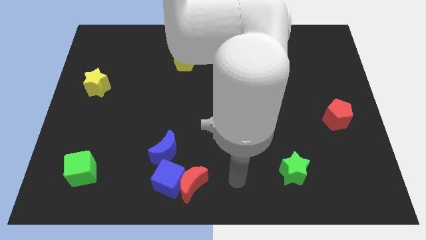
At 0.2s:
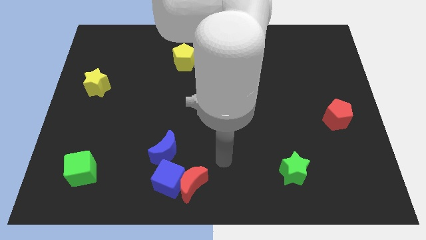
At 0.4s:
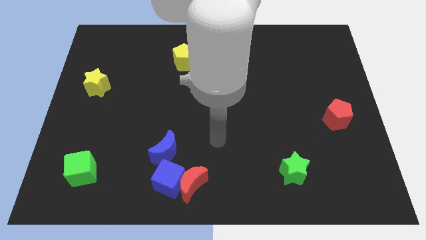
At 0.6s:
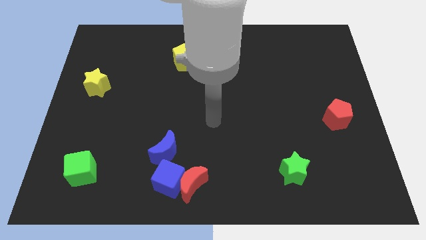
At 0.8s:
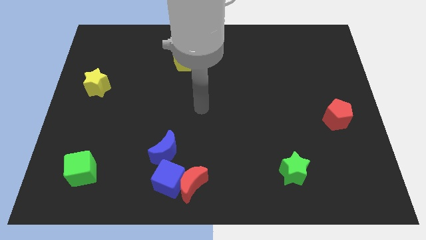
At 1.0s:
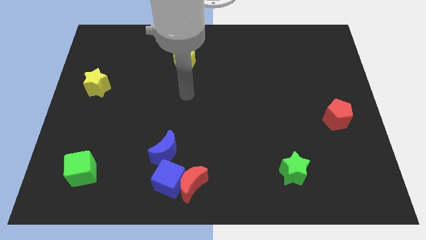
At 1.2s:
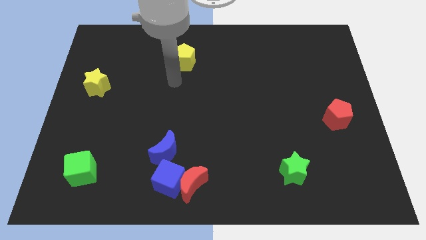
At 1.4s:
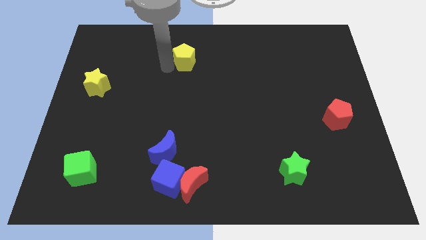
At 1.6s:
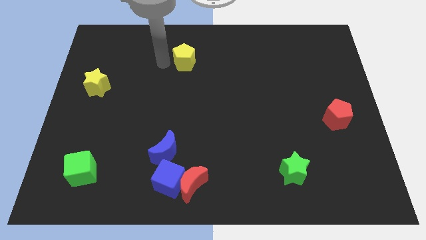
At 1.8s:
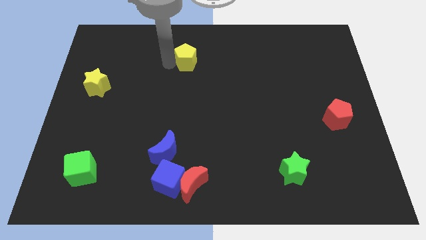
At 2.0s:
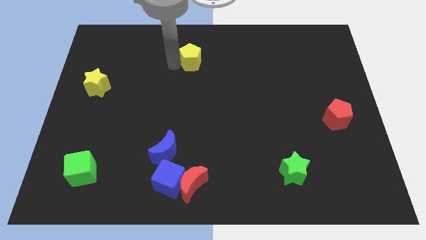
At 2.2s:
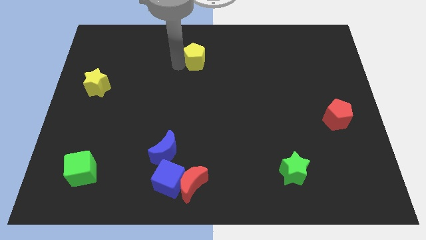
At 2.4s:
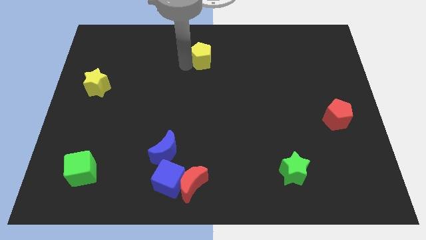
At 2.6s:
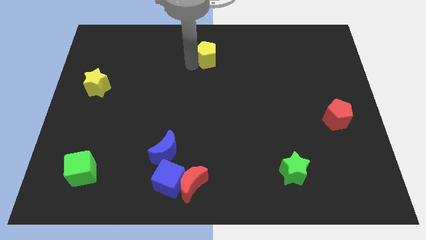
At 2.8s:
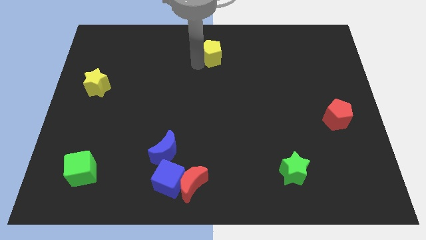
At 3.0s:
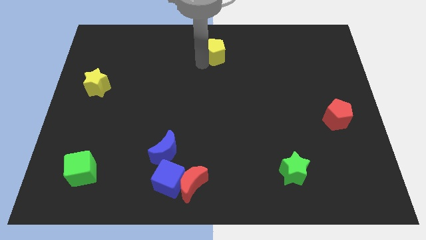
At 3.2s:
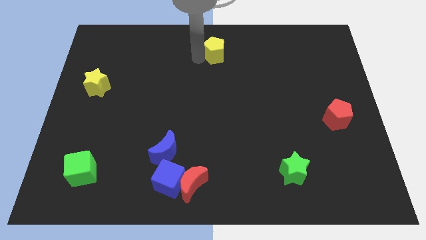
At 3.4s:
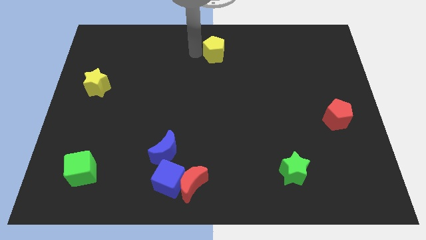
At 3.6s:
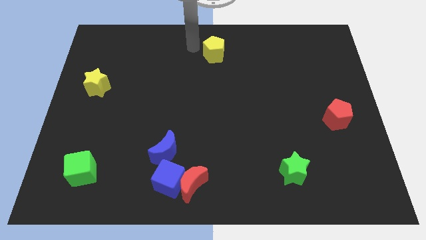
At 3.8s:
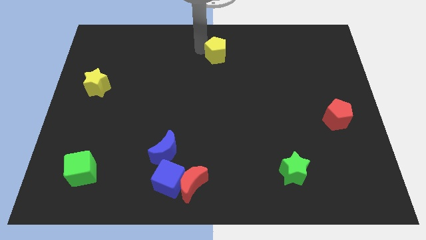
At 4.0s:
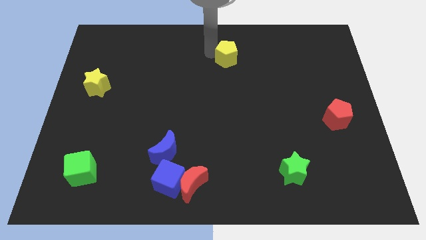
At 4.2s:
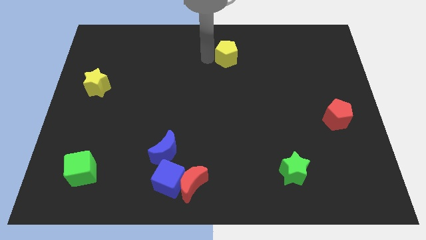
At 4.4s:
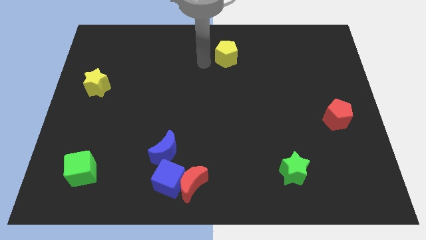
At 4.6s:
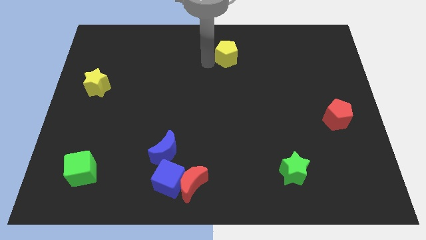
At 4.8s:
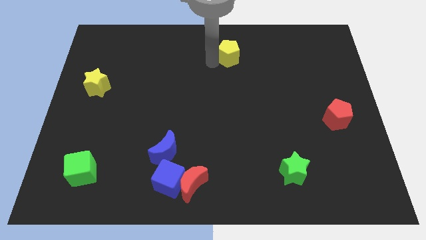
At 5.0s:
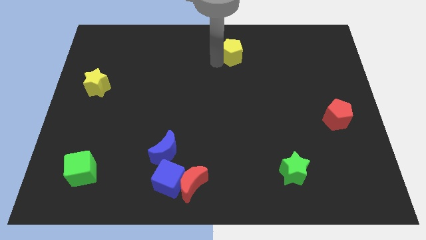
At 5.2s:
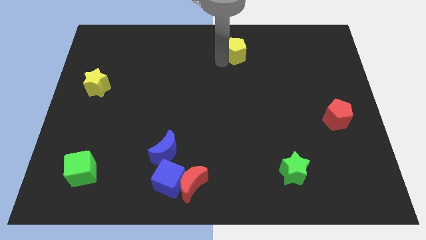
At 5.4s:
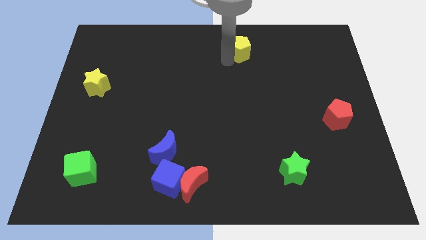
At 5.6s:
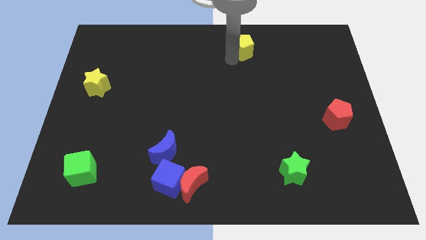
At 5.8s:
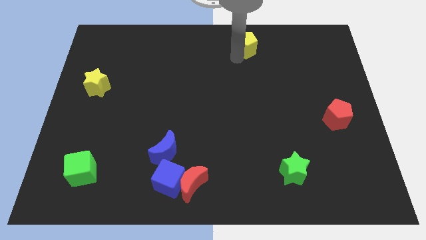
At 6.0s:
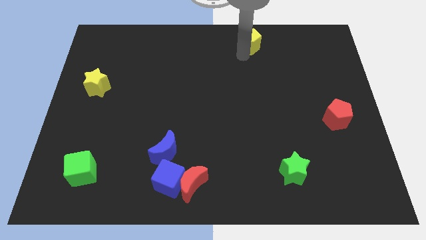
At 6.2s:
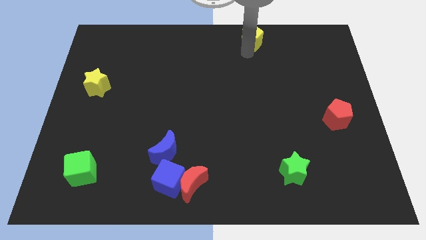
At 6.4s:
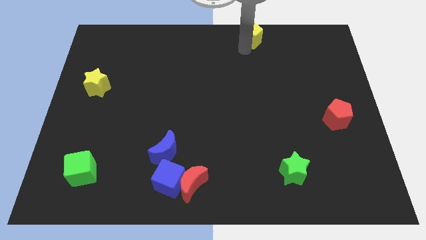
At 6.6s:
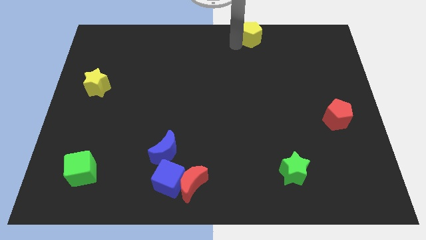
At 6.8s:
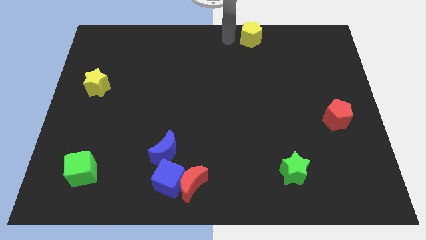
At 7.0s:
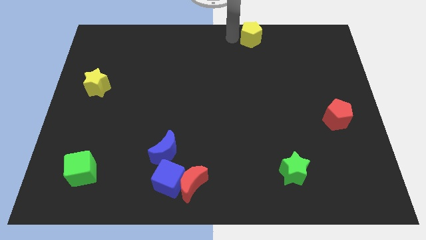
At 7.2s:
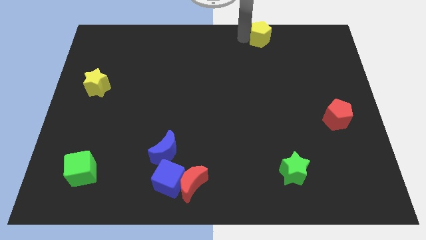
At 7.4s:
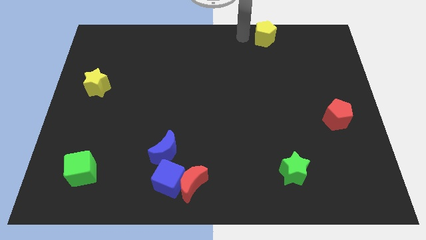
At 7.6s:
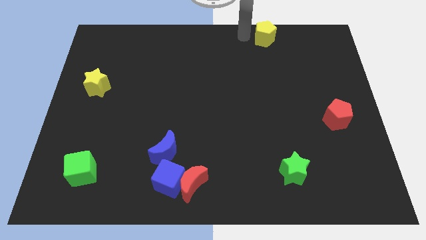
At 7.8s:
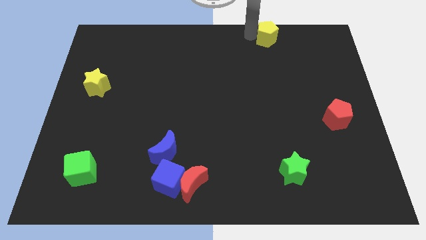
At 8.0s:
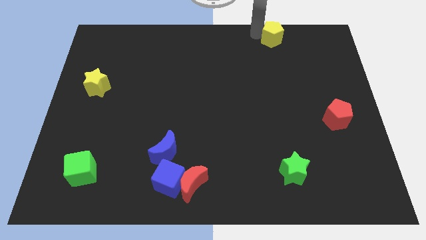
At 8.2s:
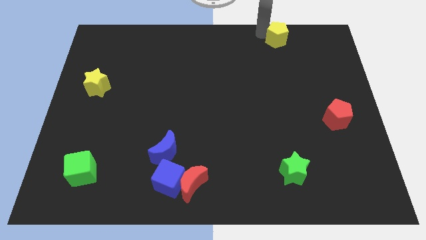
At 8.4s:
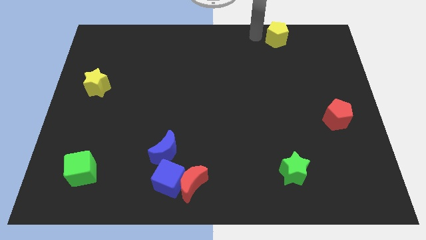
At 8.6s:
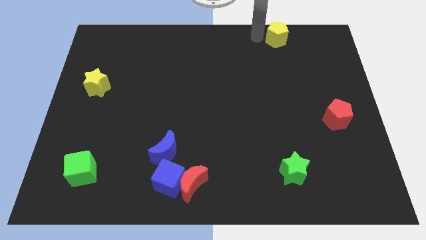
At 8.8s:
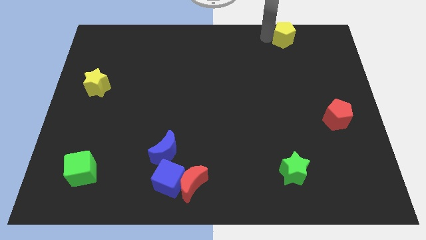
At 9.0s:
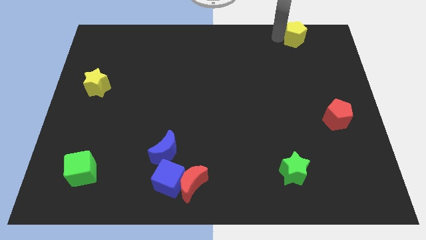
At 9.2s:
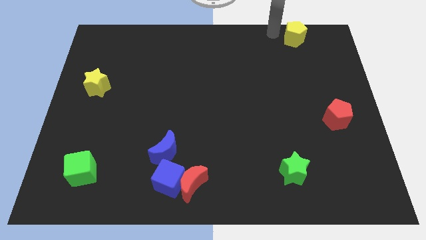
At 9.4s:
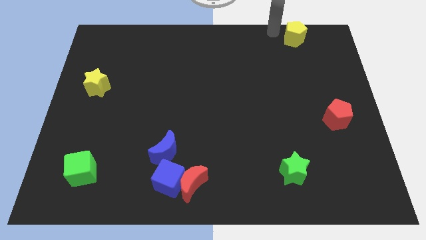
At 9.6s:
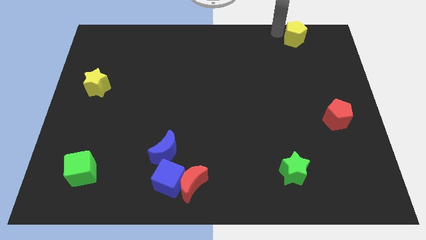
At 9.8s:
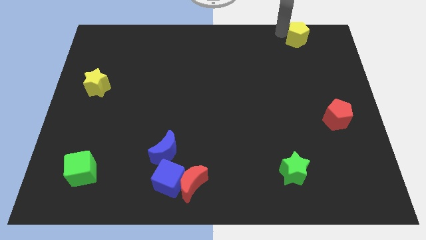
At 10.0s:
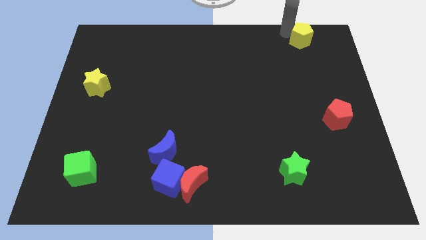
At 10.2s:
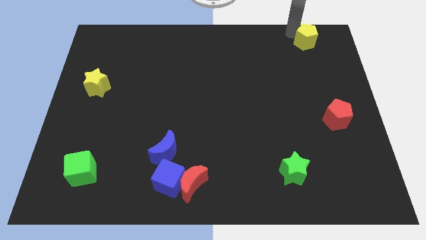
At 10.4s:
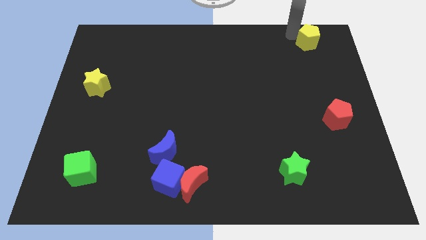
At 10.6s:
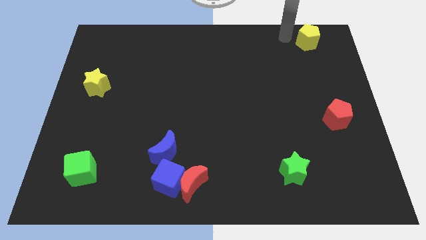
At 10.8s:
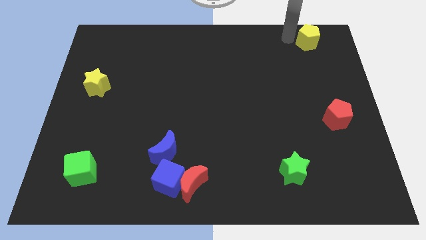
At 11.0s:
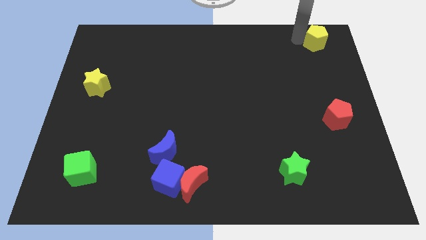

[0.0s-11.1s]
slide the yellow pentagon to the top right corner
